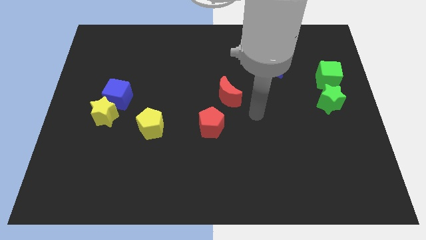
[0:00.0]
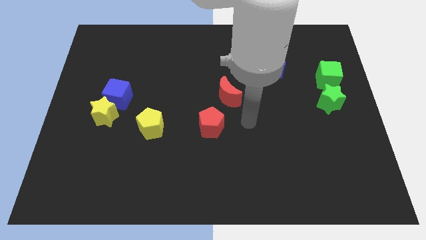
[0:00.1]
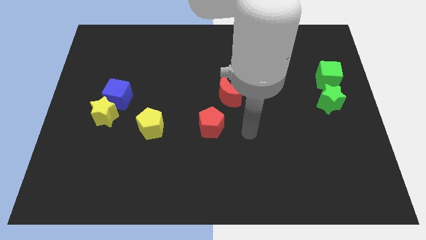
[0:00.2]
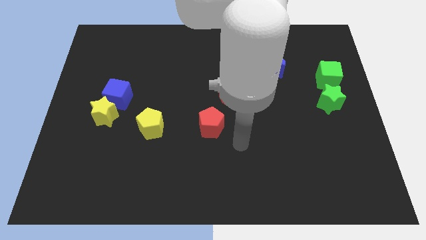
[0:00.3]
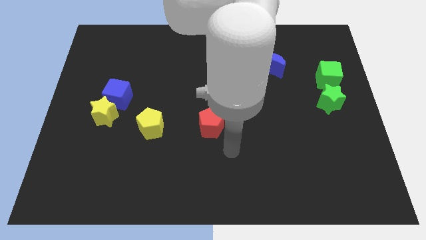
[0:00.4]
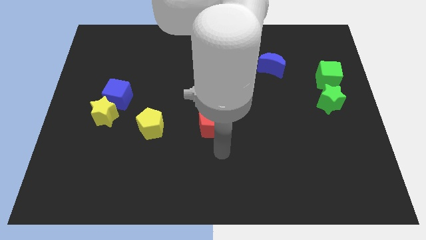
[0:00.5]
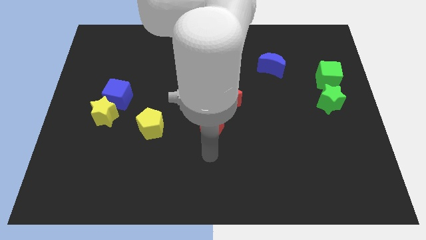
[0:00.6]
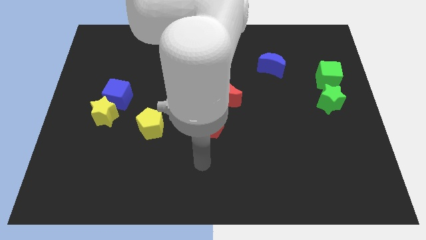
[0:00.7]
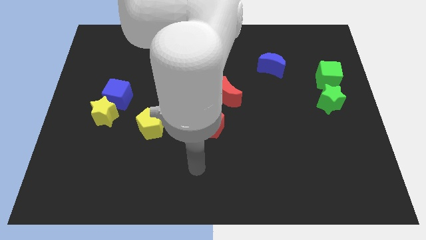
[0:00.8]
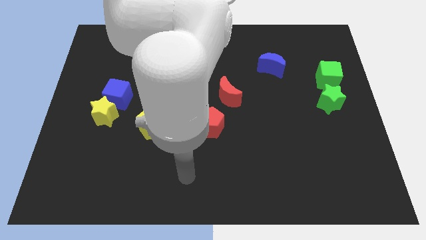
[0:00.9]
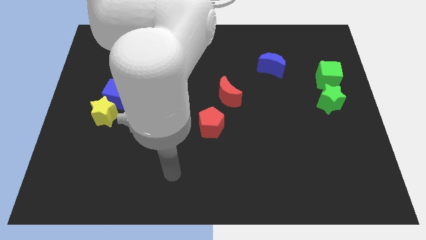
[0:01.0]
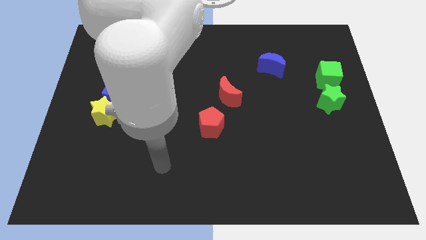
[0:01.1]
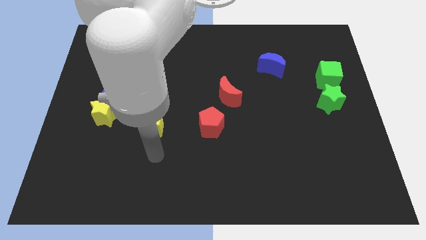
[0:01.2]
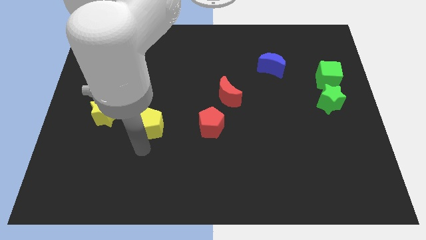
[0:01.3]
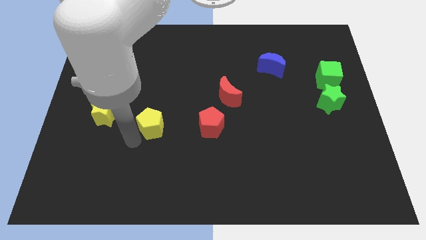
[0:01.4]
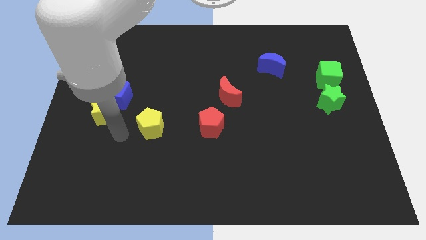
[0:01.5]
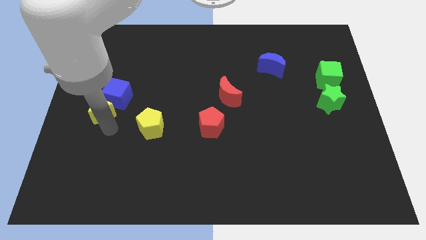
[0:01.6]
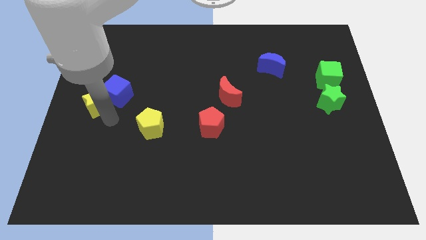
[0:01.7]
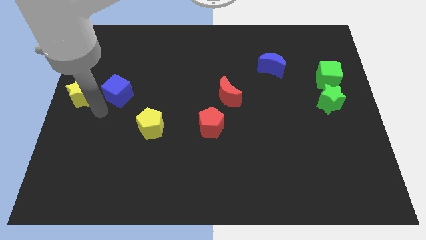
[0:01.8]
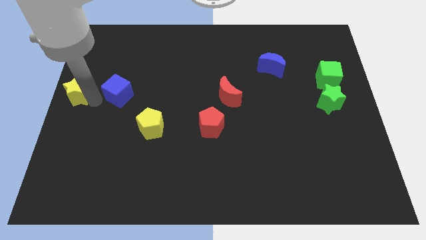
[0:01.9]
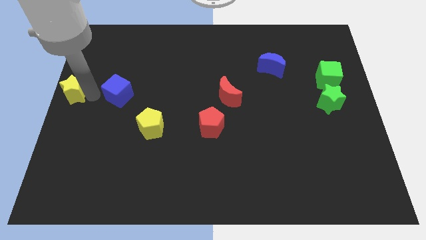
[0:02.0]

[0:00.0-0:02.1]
separate the blue cube from the yellow star

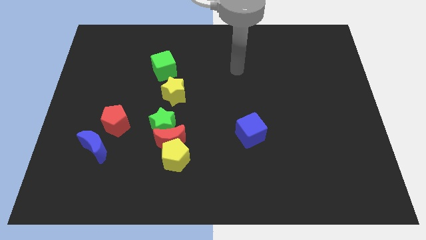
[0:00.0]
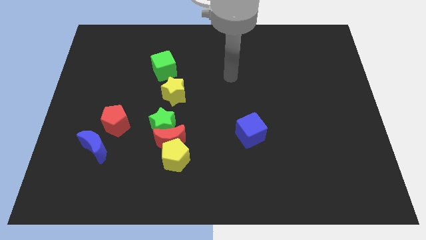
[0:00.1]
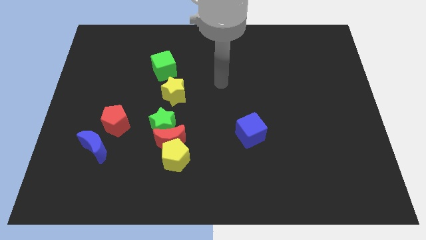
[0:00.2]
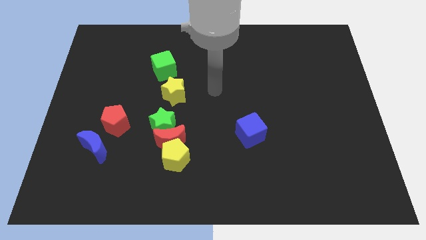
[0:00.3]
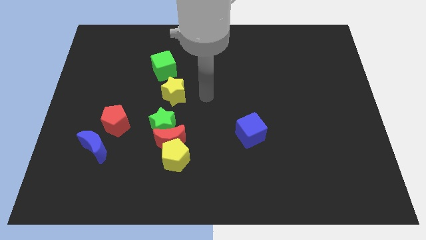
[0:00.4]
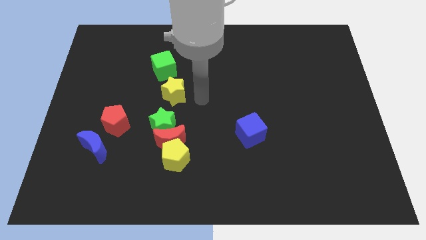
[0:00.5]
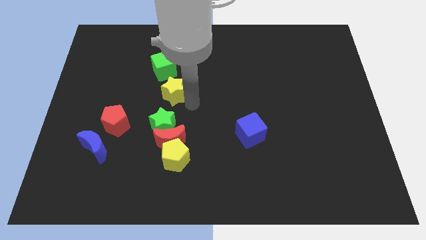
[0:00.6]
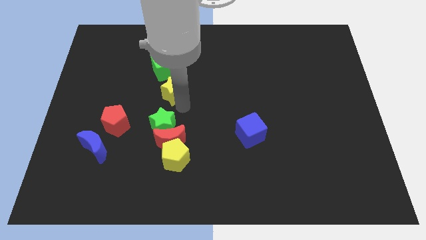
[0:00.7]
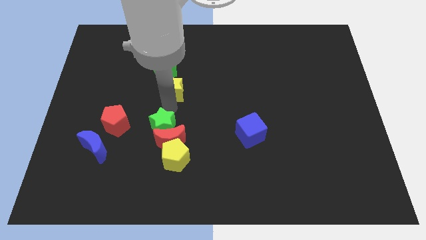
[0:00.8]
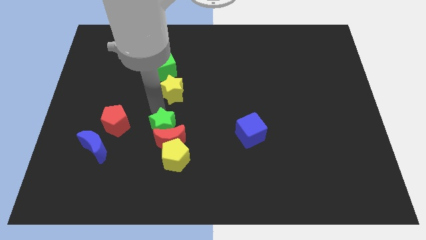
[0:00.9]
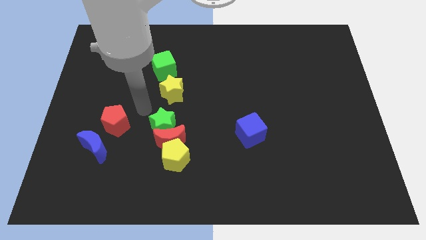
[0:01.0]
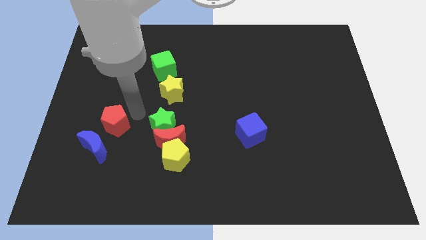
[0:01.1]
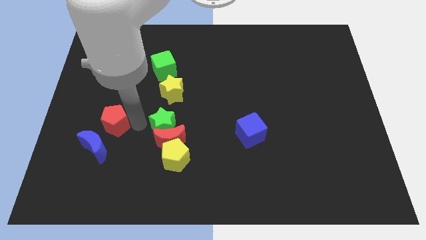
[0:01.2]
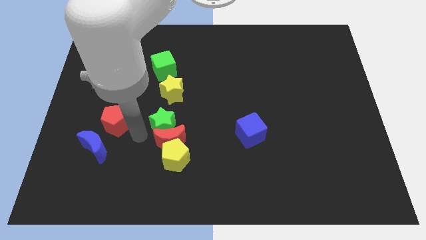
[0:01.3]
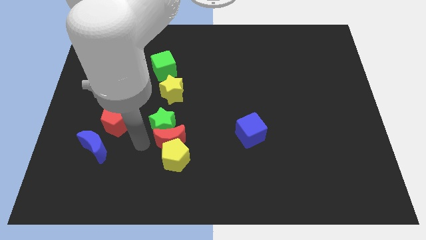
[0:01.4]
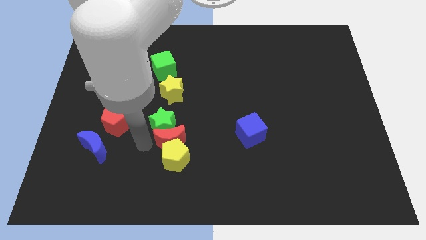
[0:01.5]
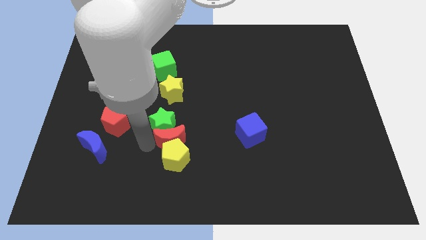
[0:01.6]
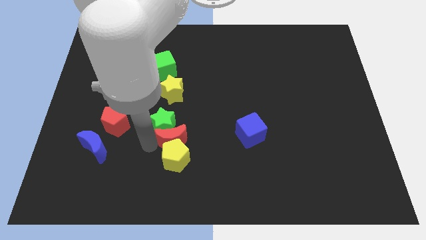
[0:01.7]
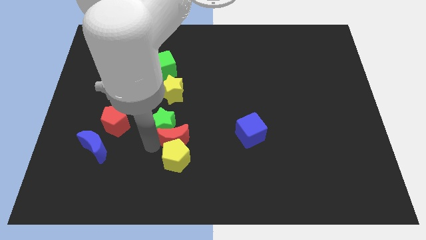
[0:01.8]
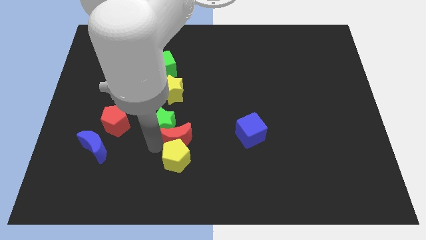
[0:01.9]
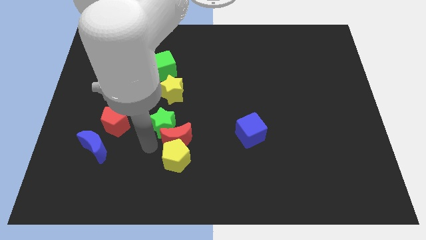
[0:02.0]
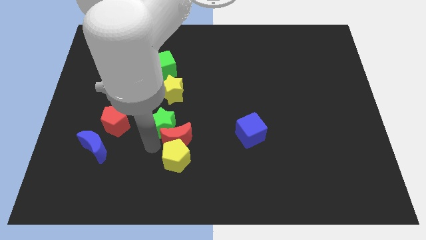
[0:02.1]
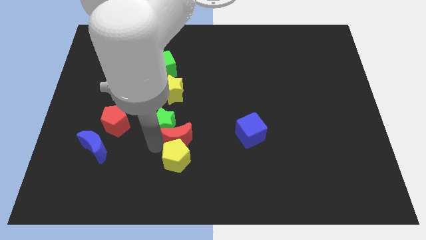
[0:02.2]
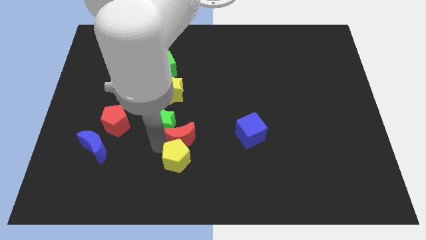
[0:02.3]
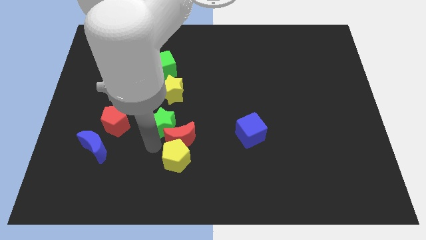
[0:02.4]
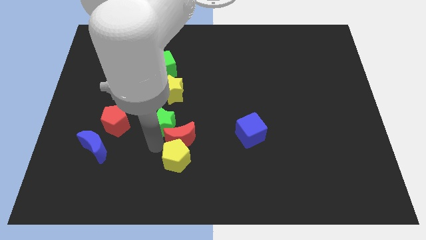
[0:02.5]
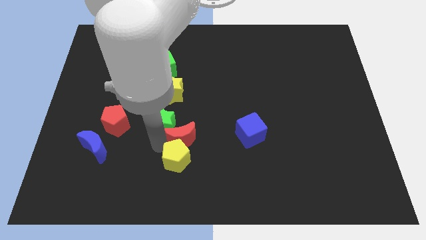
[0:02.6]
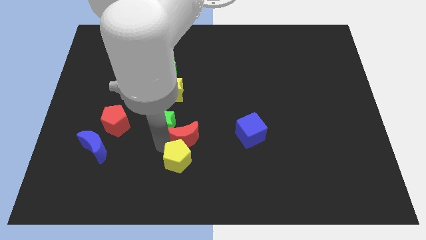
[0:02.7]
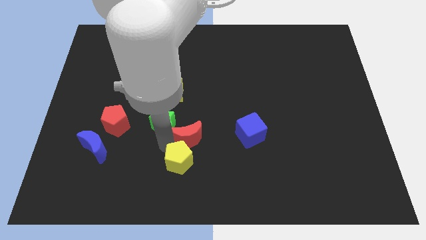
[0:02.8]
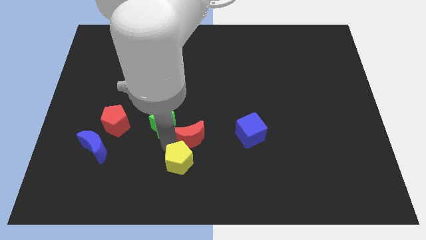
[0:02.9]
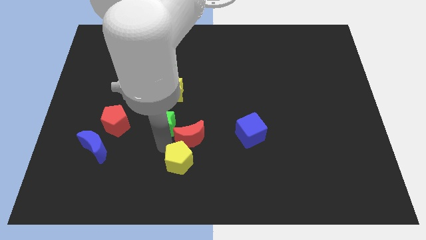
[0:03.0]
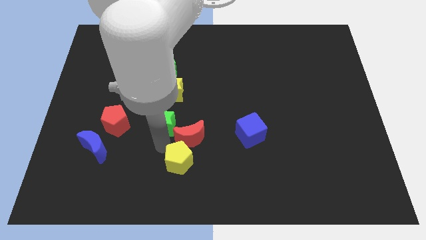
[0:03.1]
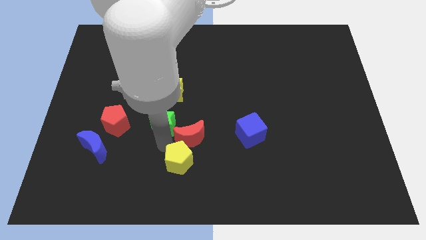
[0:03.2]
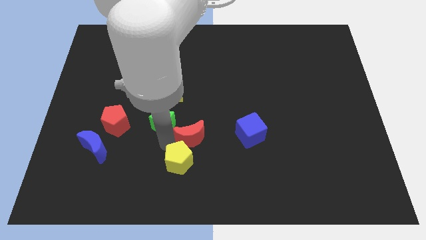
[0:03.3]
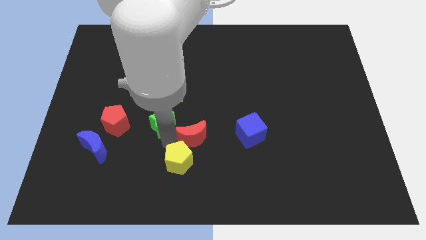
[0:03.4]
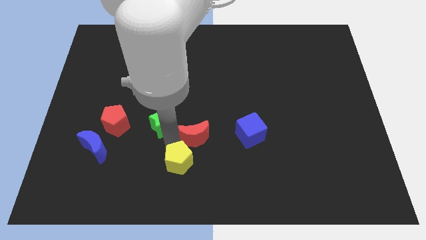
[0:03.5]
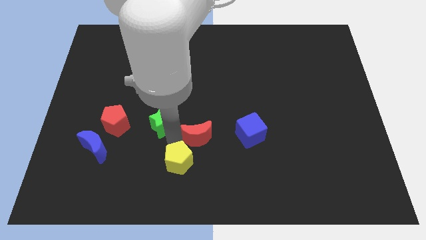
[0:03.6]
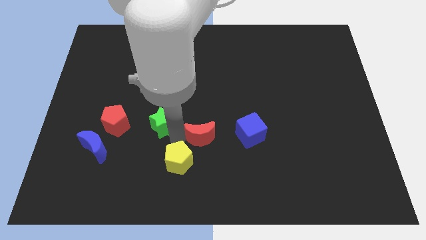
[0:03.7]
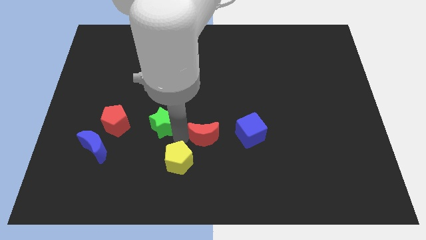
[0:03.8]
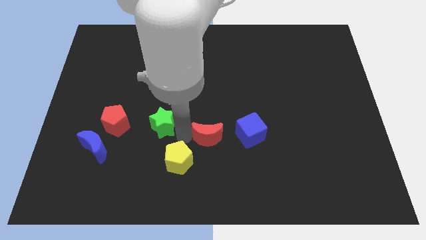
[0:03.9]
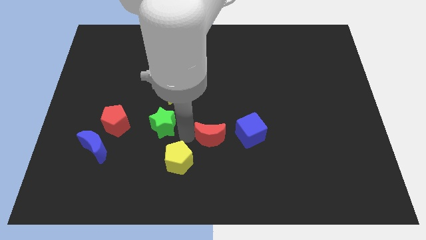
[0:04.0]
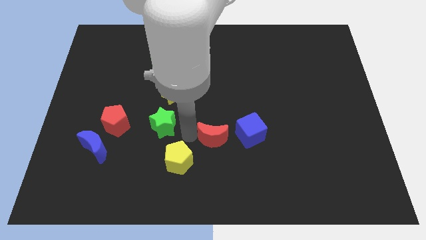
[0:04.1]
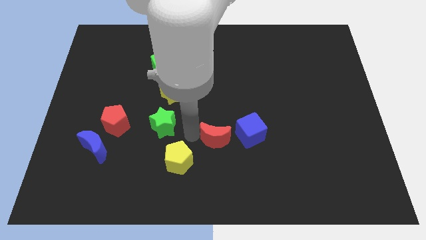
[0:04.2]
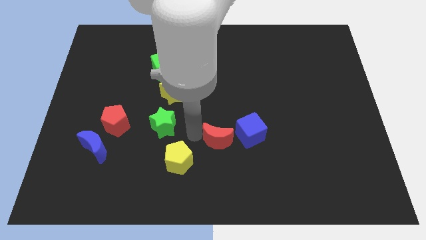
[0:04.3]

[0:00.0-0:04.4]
separate the red moon from the yellow pentagon and green star

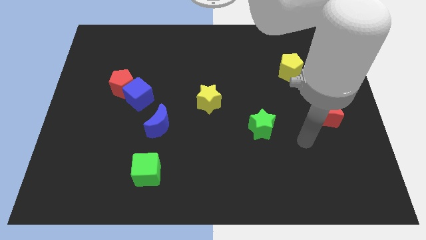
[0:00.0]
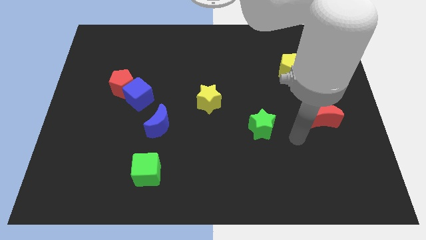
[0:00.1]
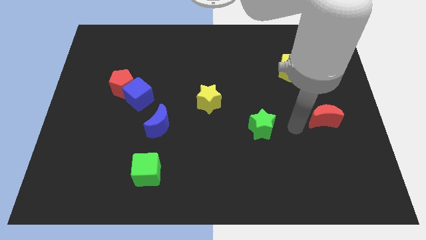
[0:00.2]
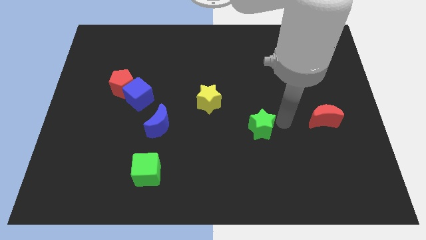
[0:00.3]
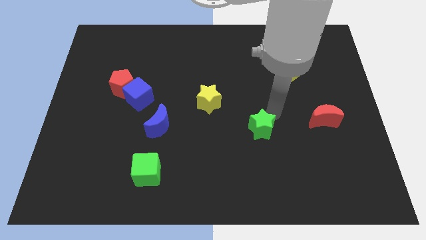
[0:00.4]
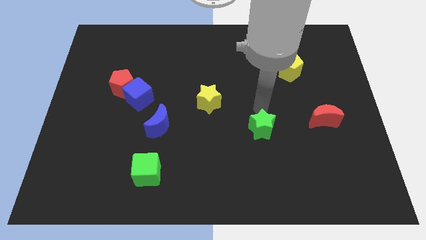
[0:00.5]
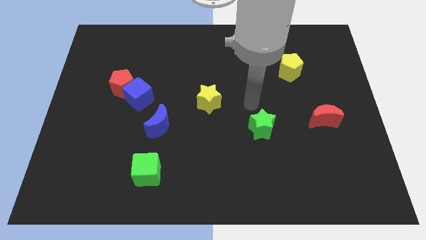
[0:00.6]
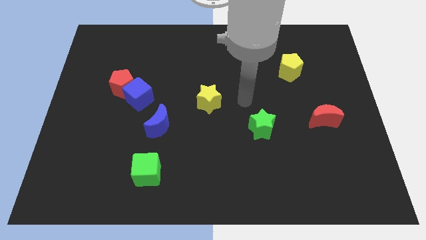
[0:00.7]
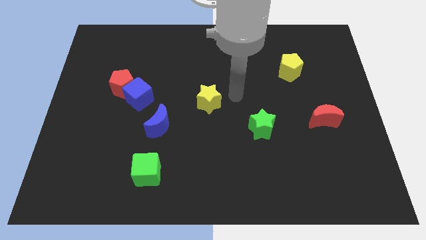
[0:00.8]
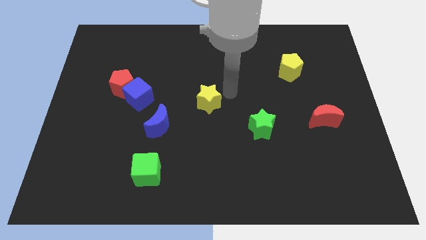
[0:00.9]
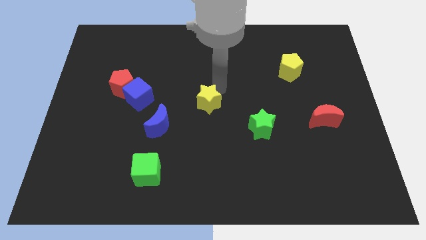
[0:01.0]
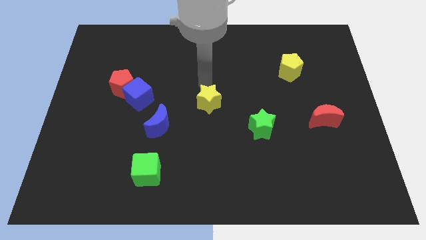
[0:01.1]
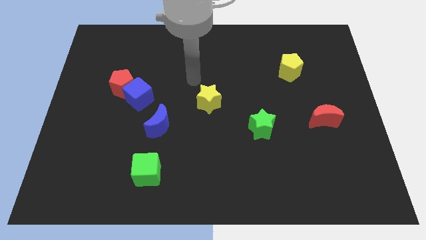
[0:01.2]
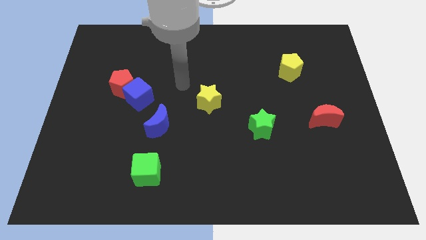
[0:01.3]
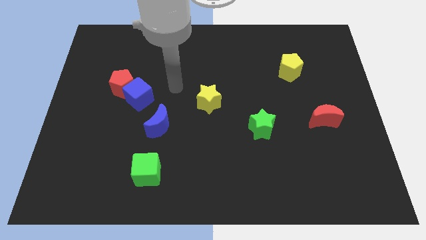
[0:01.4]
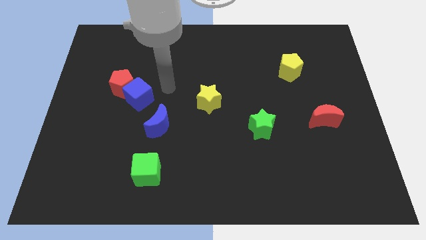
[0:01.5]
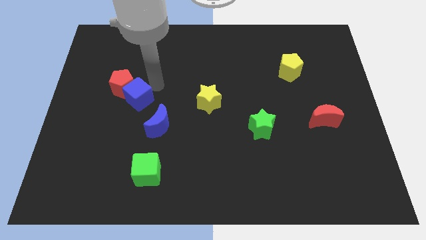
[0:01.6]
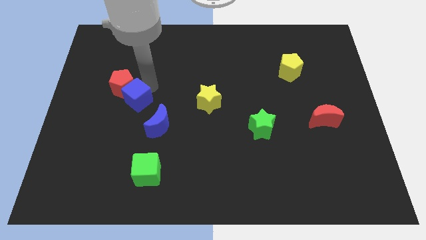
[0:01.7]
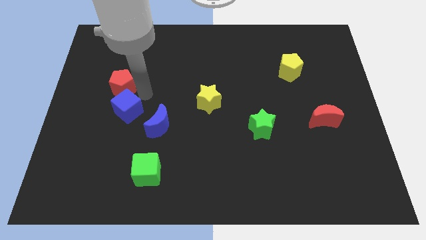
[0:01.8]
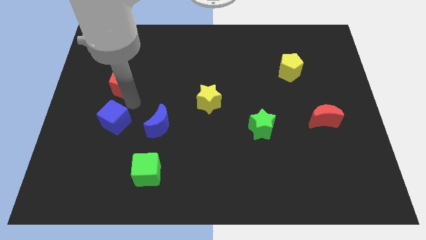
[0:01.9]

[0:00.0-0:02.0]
move the red pentagon away from the blue cube

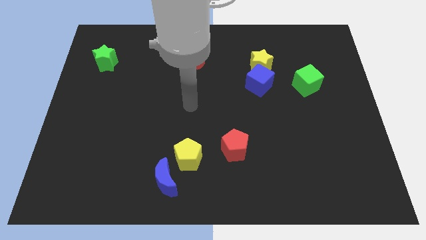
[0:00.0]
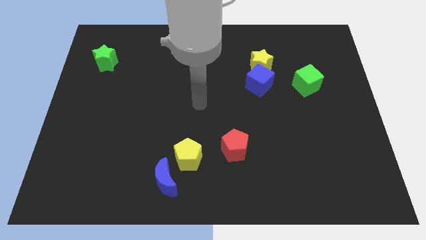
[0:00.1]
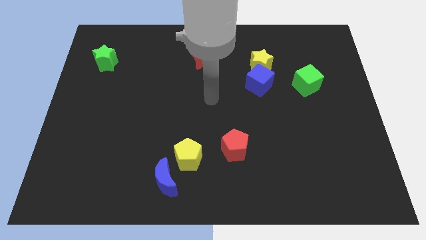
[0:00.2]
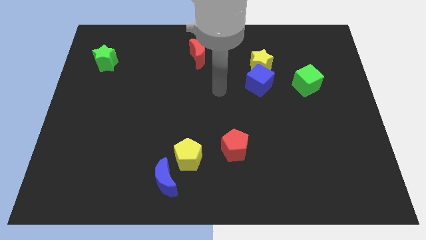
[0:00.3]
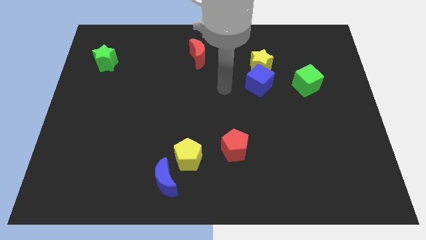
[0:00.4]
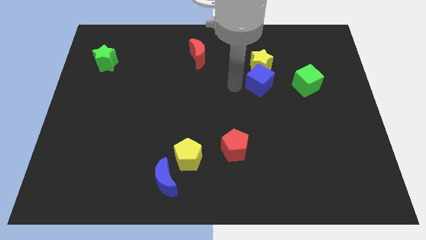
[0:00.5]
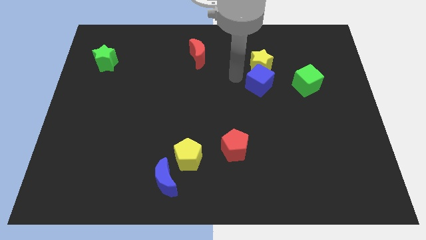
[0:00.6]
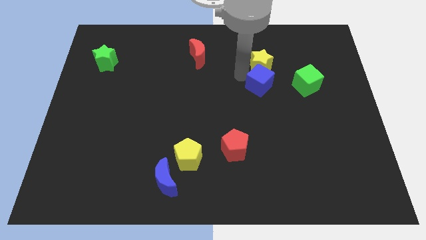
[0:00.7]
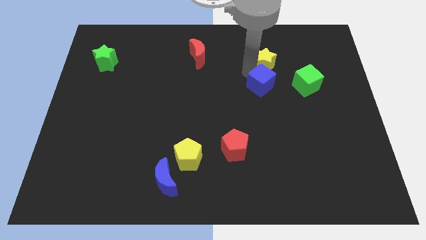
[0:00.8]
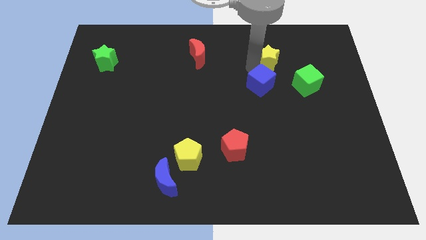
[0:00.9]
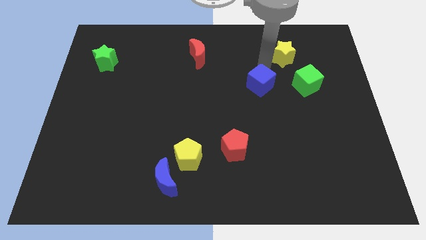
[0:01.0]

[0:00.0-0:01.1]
pull the blue cube apart from the yellow star
